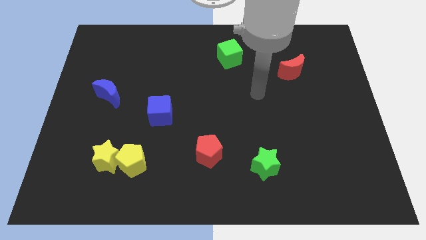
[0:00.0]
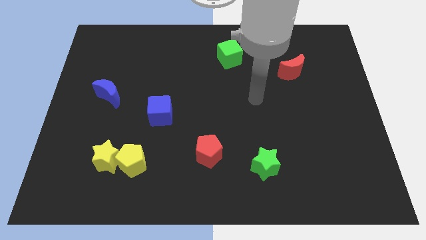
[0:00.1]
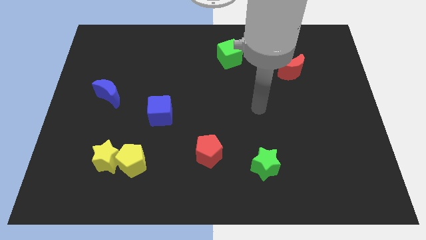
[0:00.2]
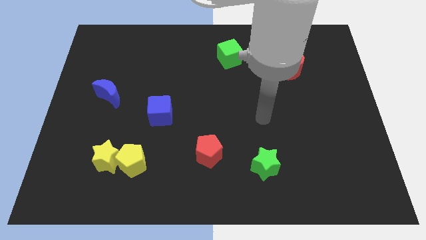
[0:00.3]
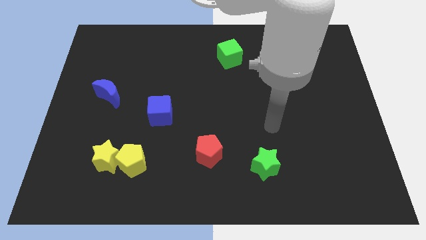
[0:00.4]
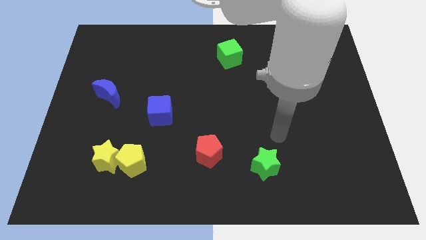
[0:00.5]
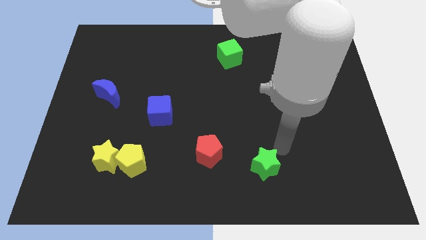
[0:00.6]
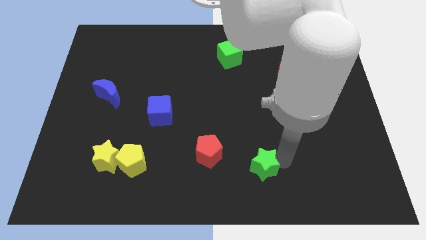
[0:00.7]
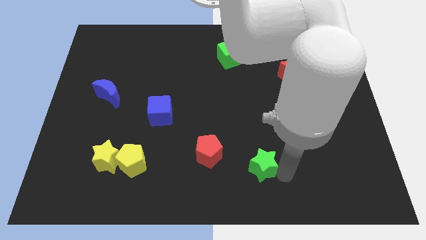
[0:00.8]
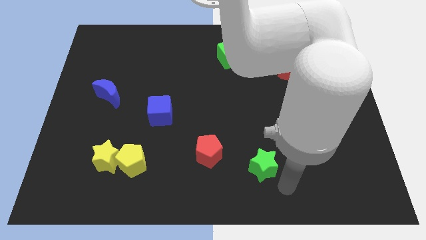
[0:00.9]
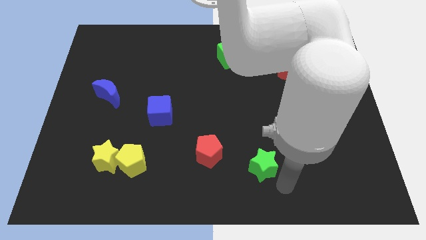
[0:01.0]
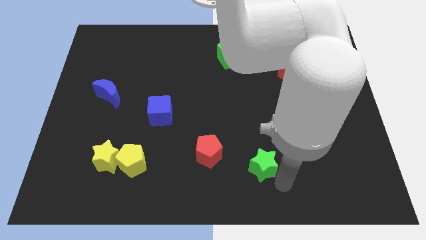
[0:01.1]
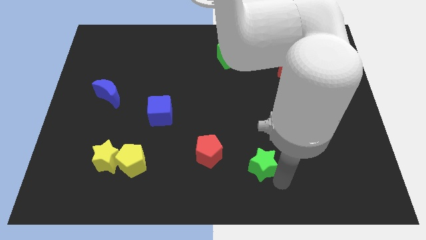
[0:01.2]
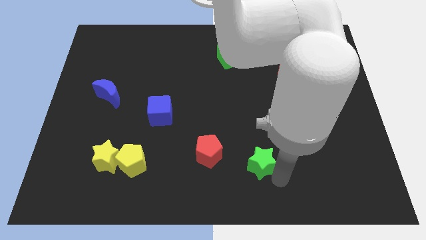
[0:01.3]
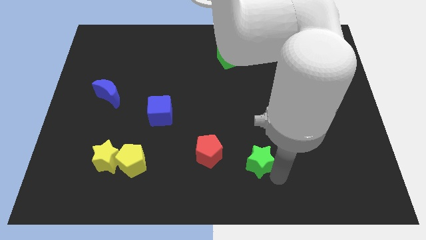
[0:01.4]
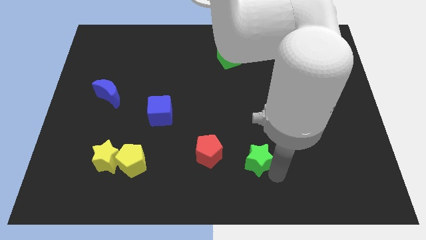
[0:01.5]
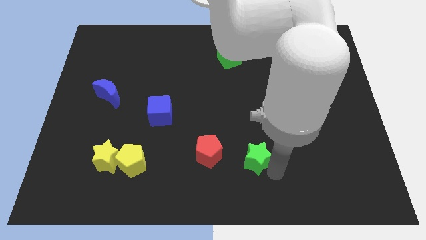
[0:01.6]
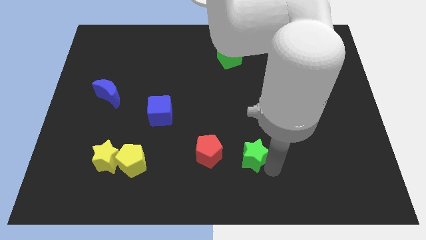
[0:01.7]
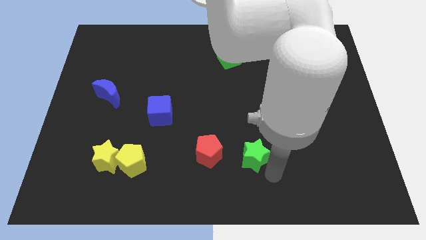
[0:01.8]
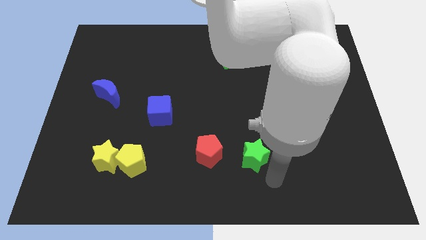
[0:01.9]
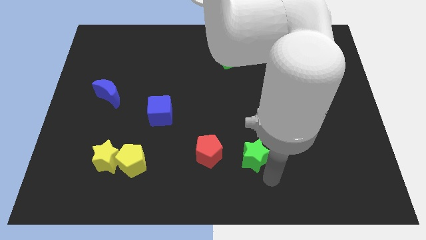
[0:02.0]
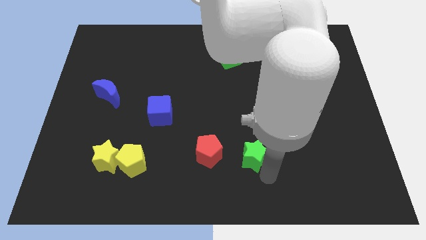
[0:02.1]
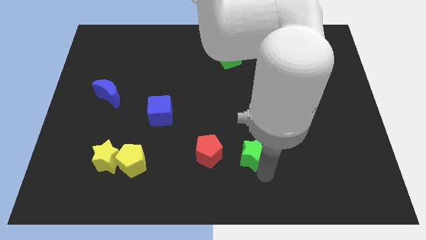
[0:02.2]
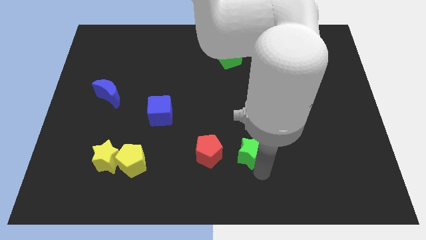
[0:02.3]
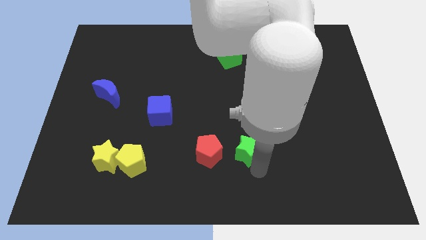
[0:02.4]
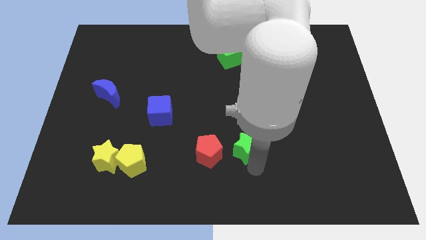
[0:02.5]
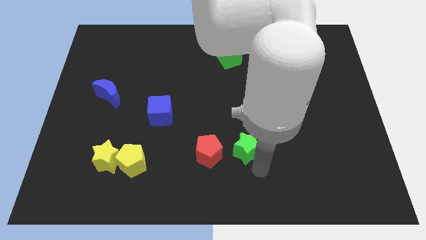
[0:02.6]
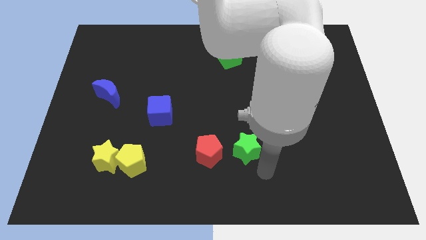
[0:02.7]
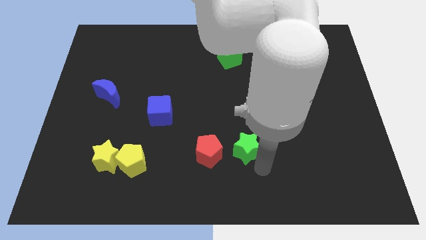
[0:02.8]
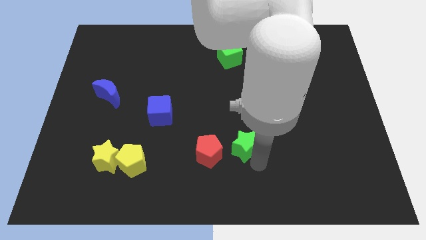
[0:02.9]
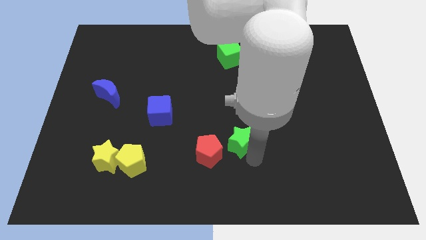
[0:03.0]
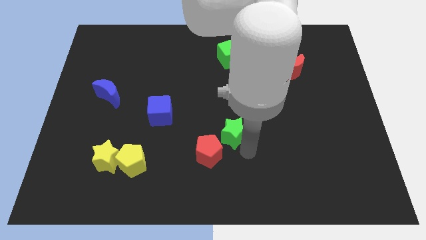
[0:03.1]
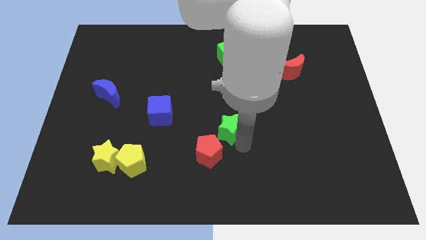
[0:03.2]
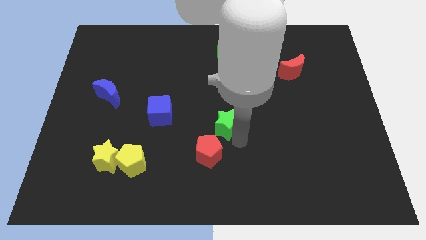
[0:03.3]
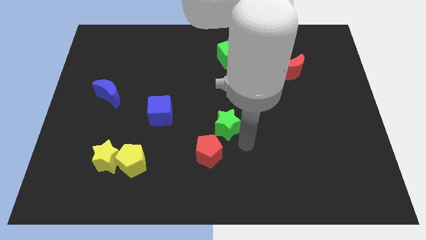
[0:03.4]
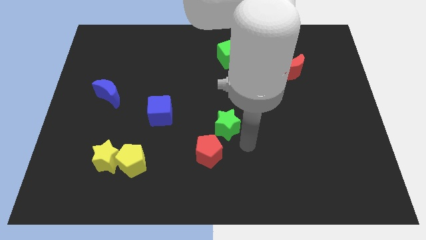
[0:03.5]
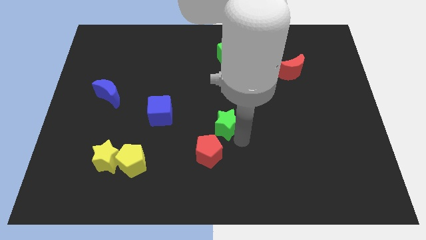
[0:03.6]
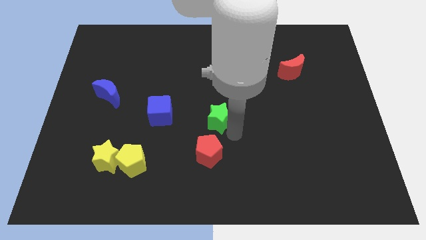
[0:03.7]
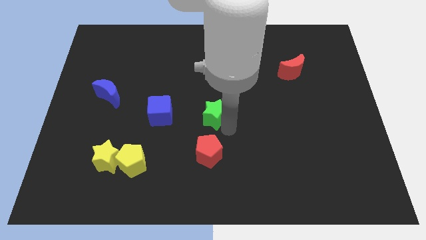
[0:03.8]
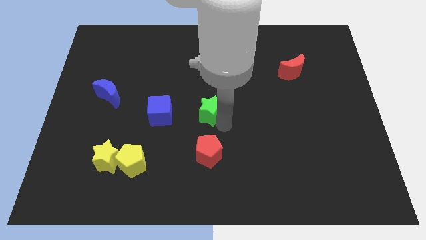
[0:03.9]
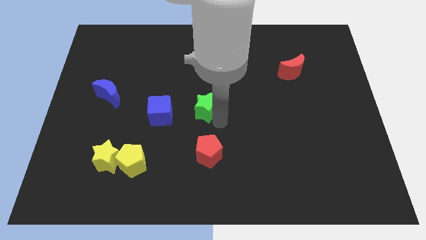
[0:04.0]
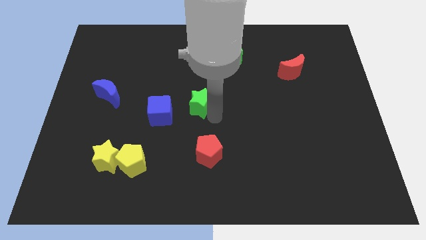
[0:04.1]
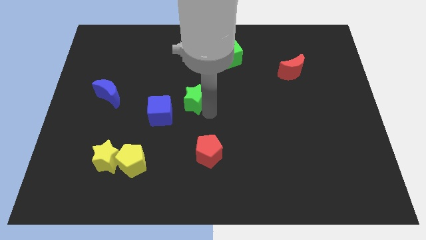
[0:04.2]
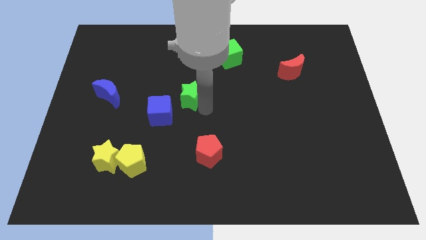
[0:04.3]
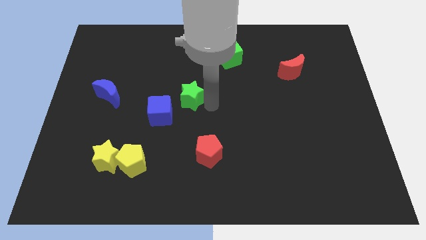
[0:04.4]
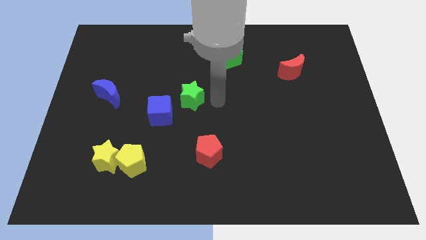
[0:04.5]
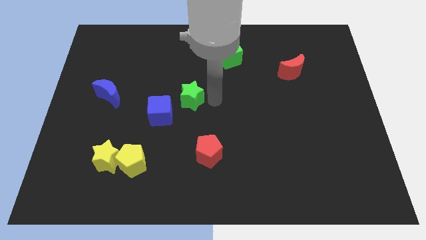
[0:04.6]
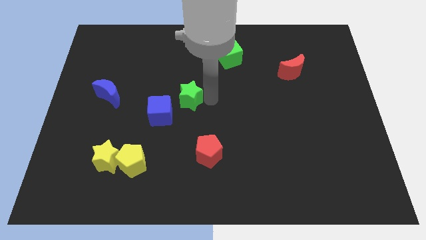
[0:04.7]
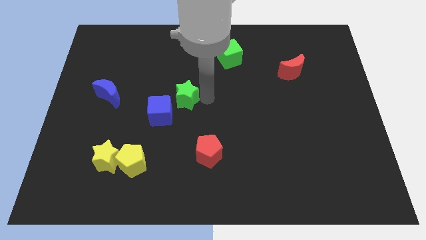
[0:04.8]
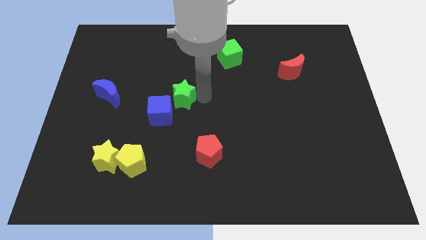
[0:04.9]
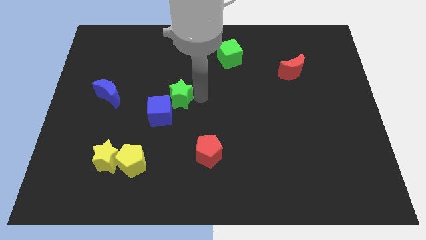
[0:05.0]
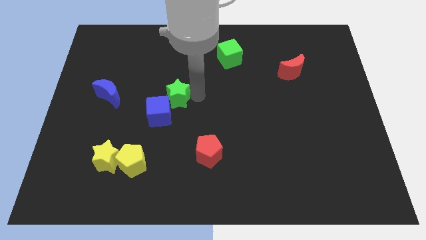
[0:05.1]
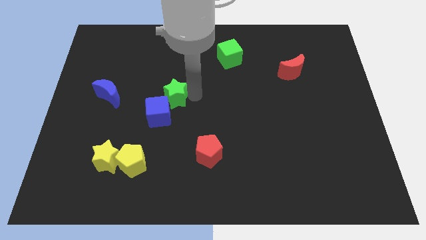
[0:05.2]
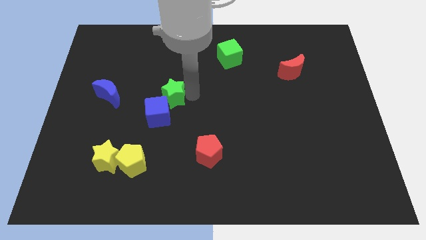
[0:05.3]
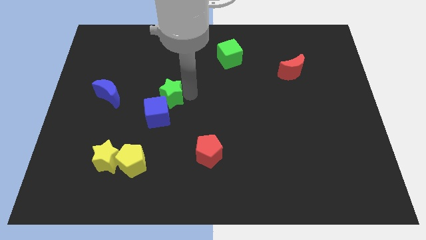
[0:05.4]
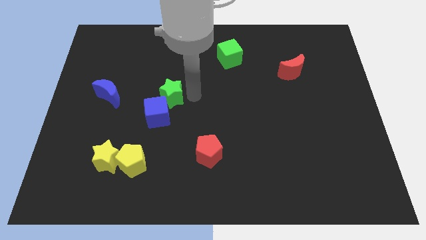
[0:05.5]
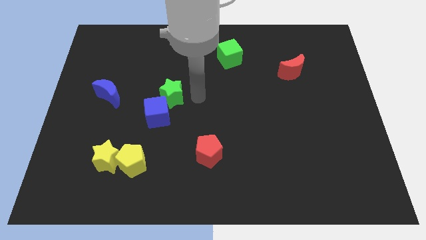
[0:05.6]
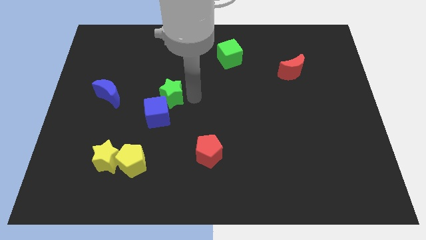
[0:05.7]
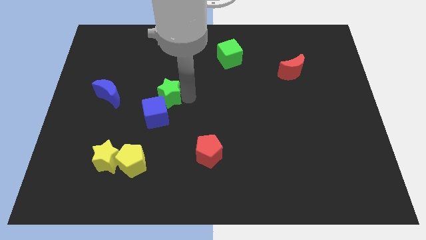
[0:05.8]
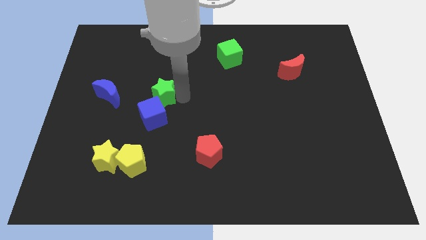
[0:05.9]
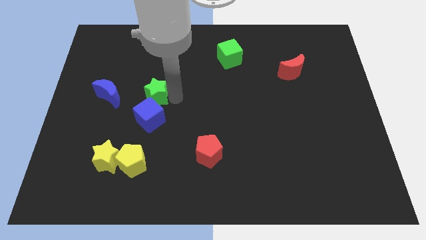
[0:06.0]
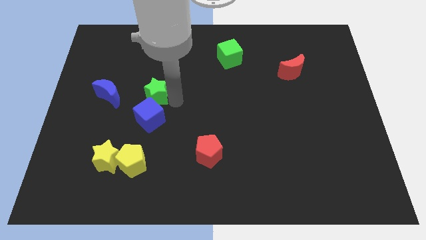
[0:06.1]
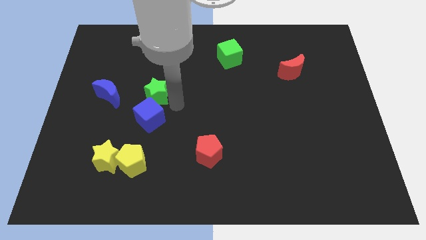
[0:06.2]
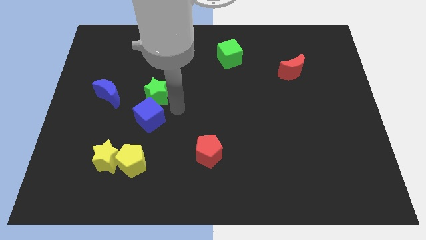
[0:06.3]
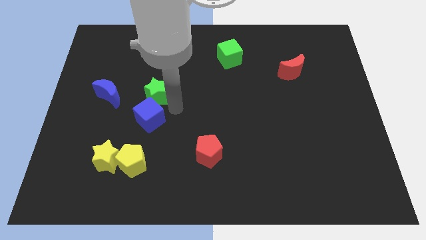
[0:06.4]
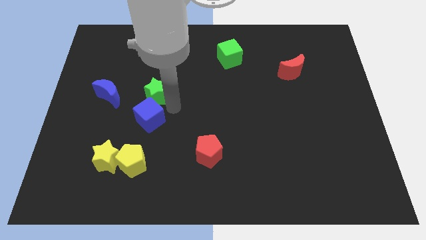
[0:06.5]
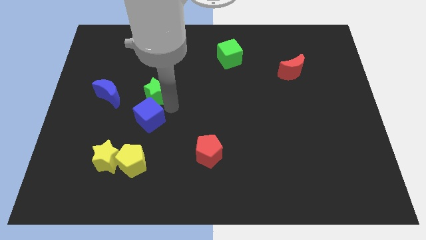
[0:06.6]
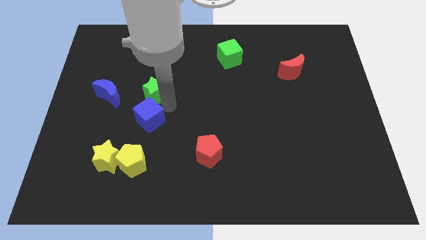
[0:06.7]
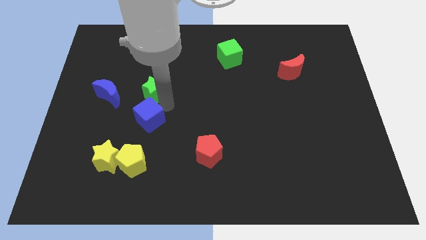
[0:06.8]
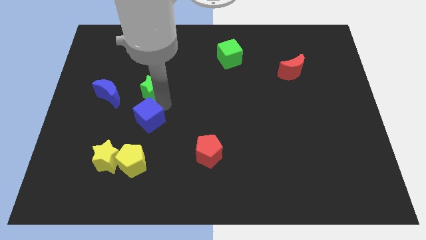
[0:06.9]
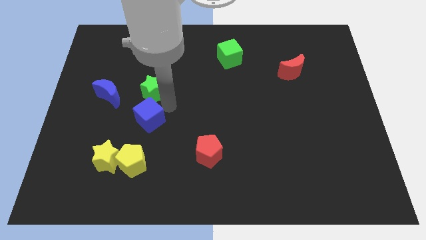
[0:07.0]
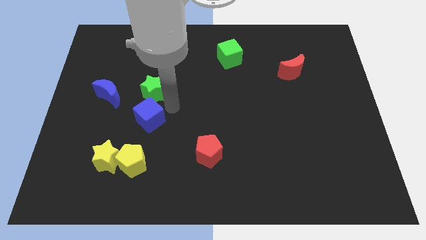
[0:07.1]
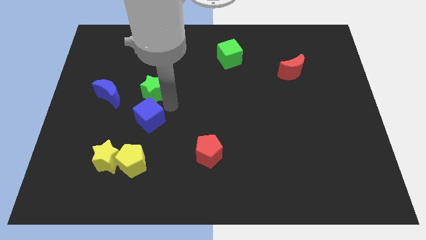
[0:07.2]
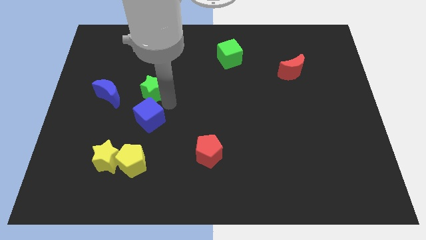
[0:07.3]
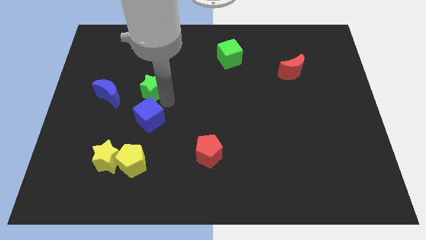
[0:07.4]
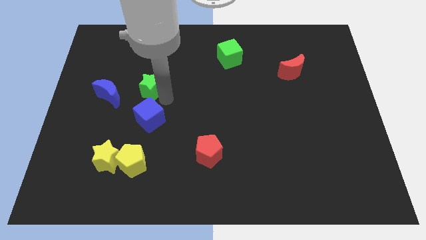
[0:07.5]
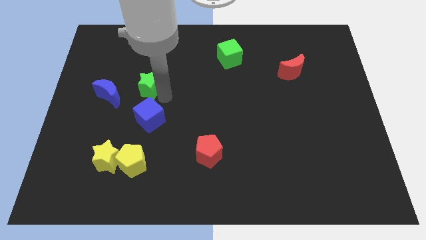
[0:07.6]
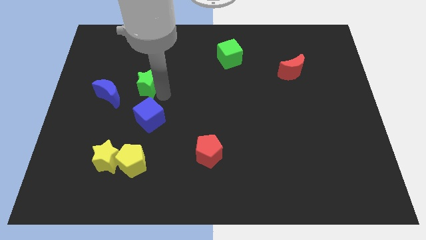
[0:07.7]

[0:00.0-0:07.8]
push the green star to the top right side of the blue moon
